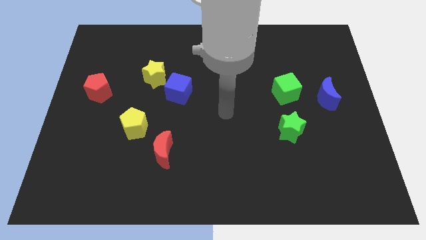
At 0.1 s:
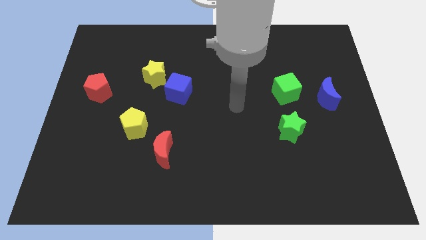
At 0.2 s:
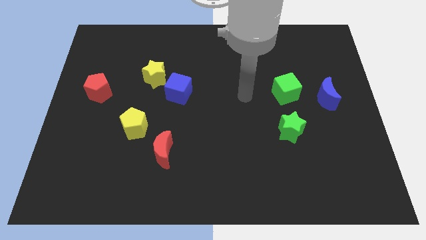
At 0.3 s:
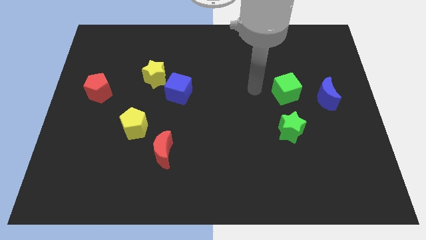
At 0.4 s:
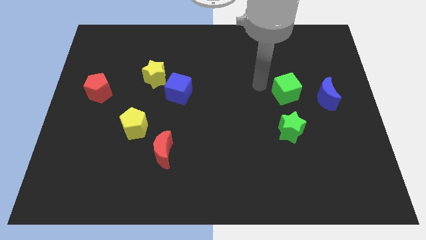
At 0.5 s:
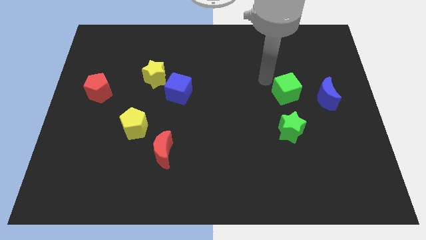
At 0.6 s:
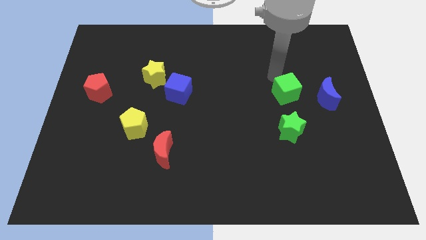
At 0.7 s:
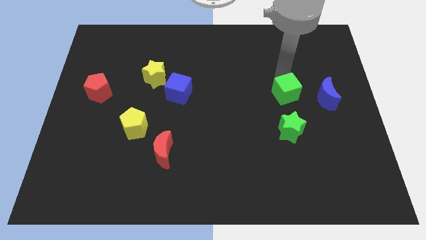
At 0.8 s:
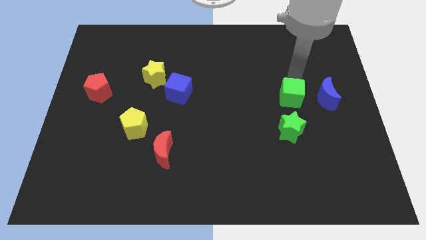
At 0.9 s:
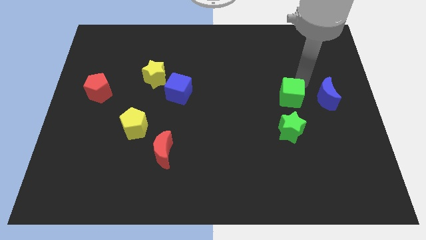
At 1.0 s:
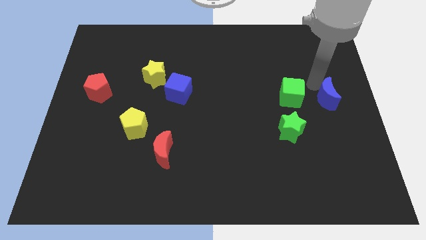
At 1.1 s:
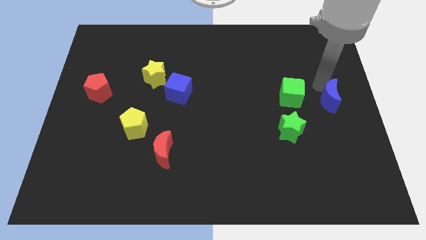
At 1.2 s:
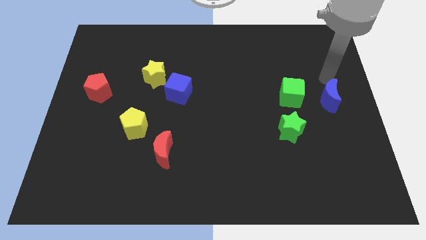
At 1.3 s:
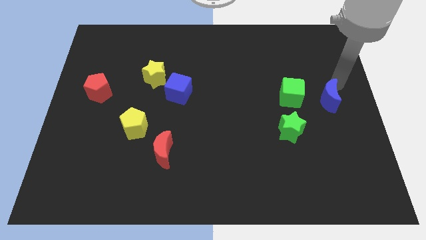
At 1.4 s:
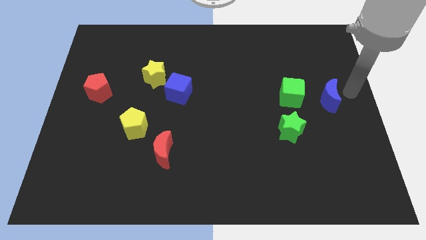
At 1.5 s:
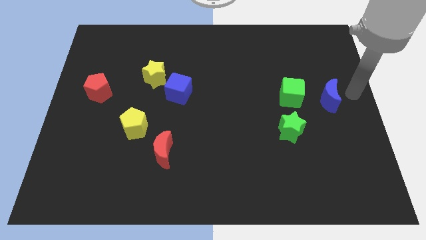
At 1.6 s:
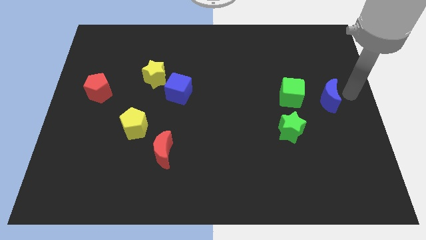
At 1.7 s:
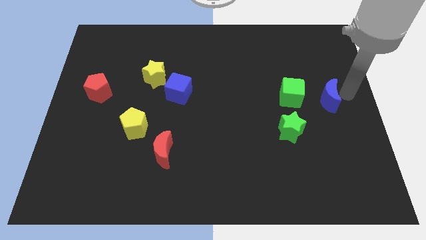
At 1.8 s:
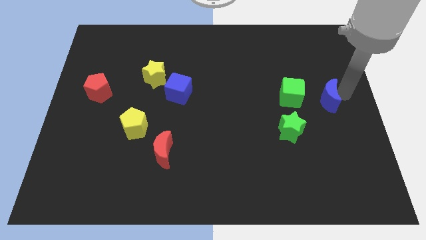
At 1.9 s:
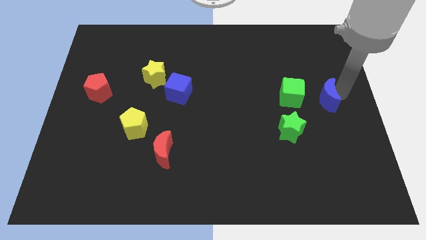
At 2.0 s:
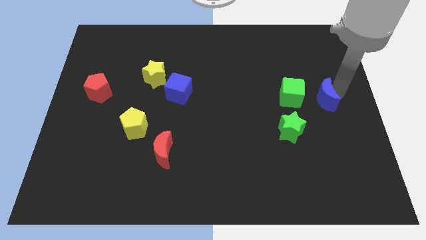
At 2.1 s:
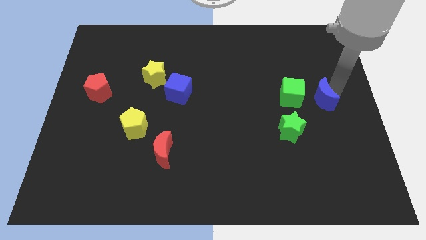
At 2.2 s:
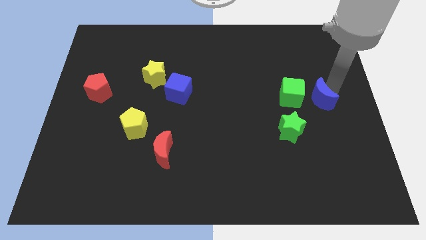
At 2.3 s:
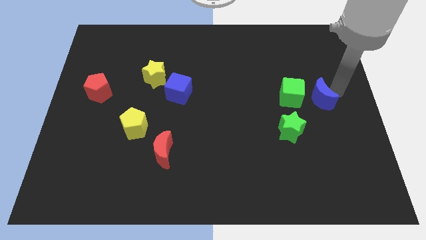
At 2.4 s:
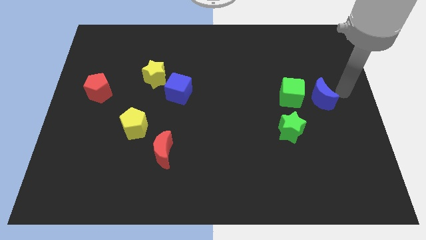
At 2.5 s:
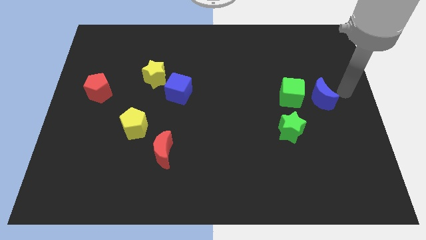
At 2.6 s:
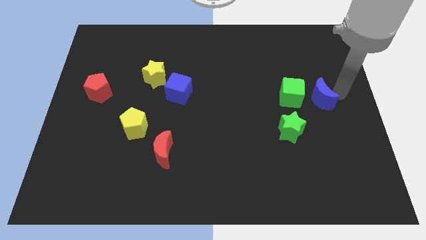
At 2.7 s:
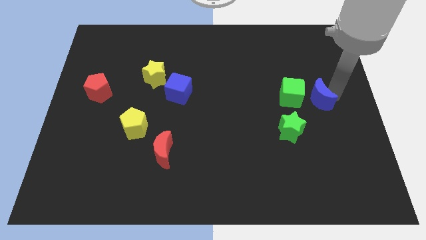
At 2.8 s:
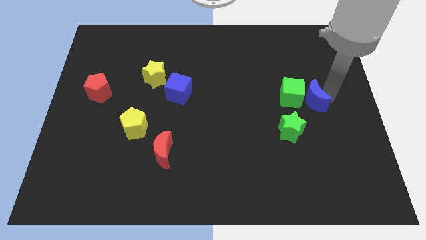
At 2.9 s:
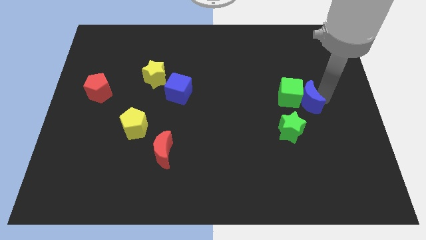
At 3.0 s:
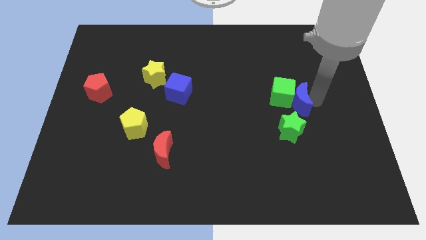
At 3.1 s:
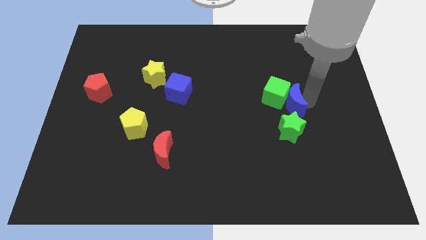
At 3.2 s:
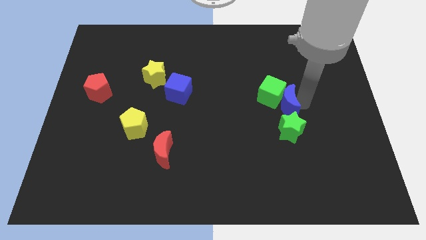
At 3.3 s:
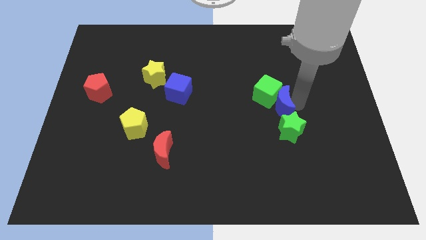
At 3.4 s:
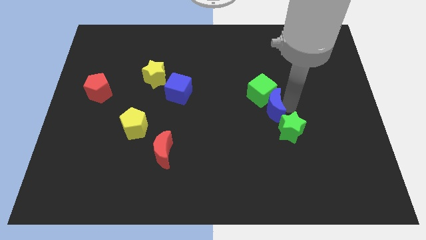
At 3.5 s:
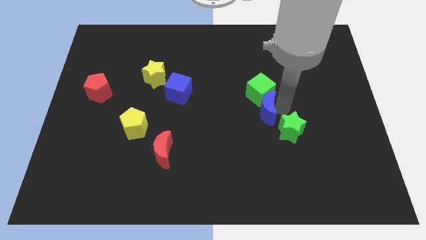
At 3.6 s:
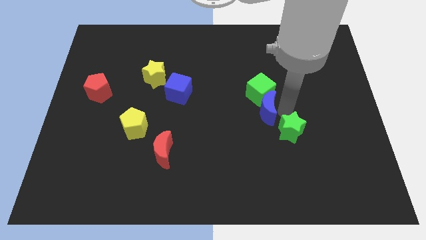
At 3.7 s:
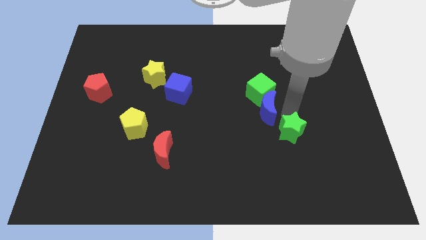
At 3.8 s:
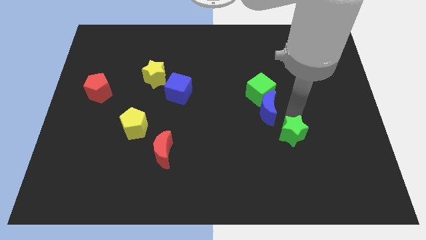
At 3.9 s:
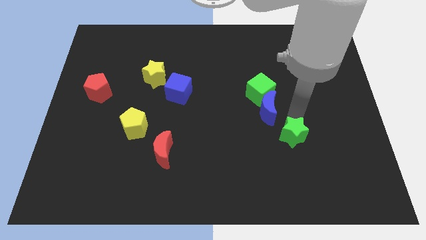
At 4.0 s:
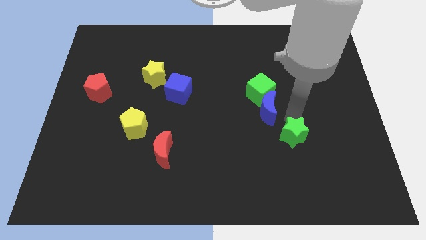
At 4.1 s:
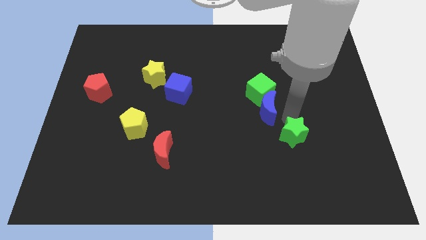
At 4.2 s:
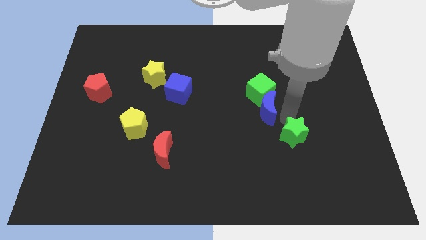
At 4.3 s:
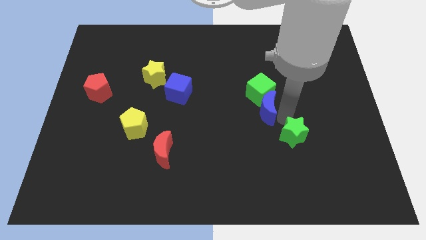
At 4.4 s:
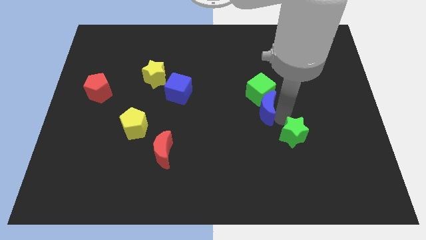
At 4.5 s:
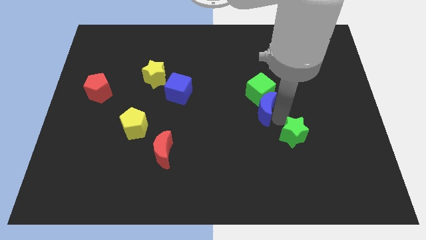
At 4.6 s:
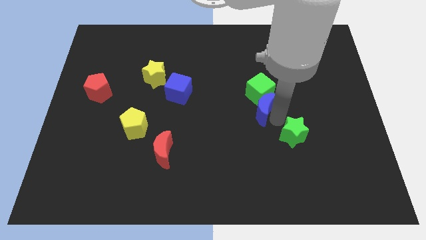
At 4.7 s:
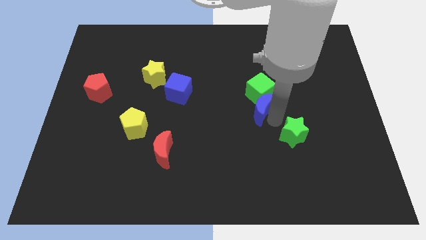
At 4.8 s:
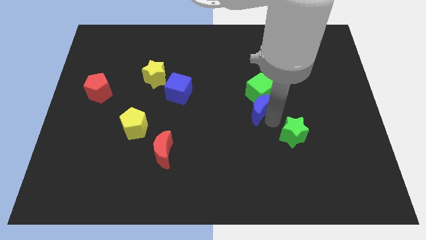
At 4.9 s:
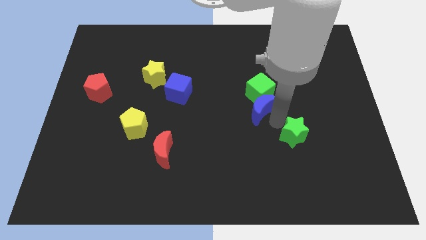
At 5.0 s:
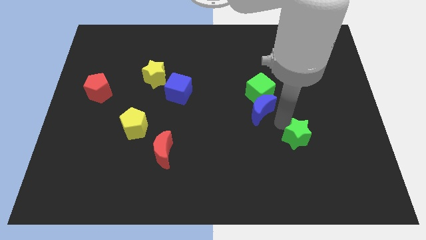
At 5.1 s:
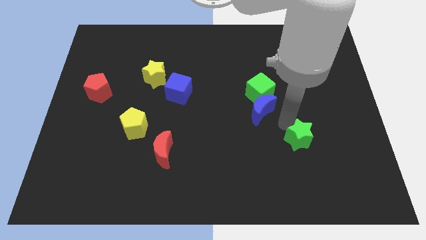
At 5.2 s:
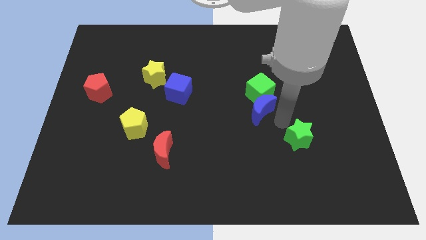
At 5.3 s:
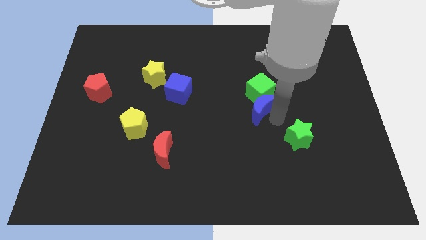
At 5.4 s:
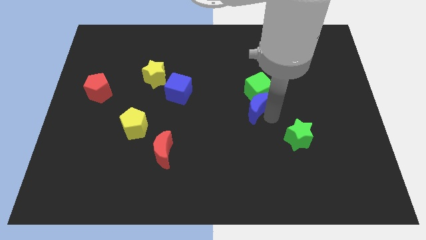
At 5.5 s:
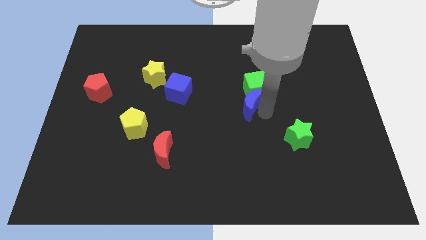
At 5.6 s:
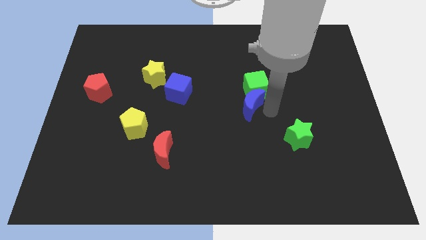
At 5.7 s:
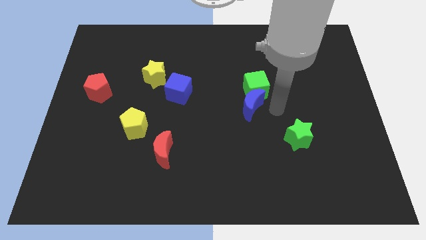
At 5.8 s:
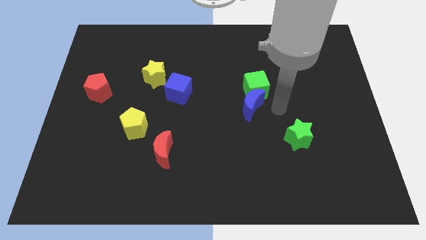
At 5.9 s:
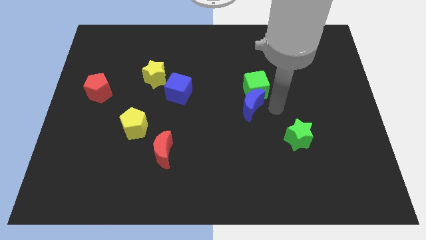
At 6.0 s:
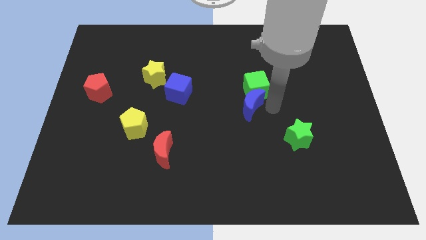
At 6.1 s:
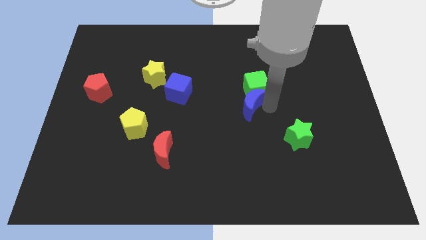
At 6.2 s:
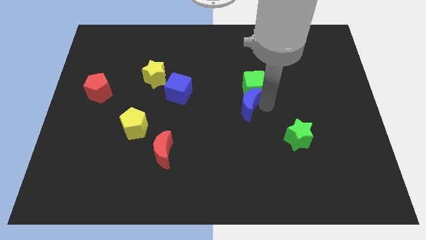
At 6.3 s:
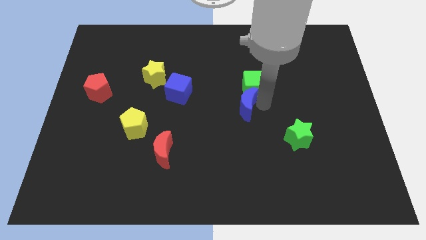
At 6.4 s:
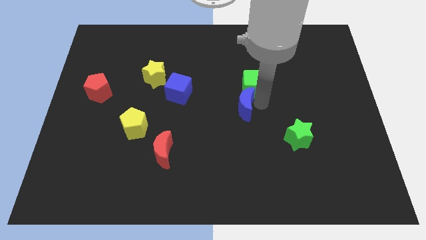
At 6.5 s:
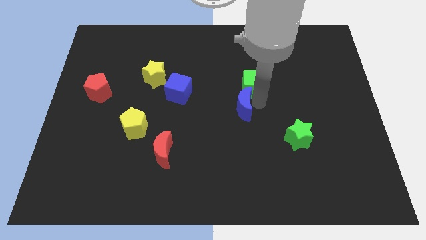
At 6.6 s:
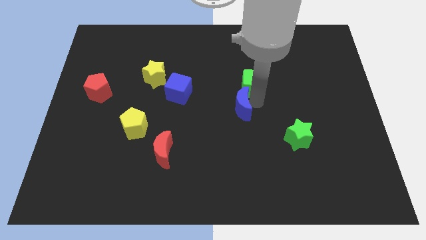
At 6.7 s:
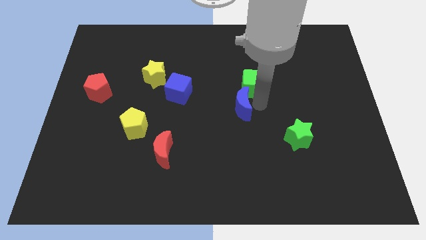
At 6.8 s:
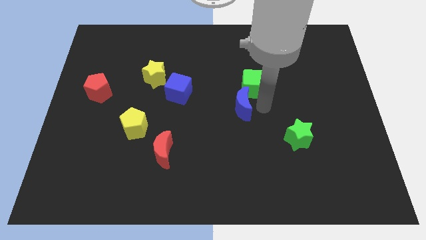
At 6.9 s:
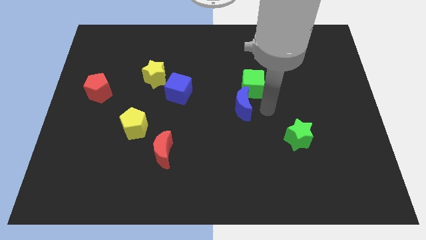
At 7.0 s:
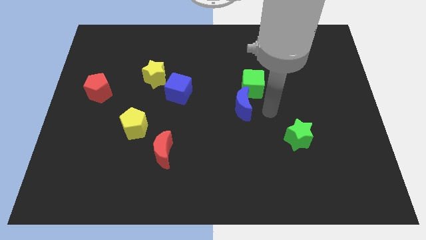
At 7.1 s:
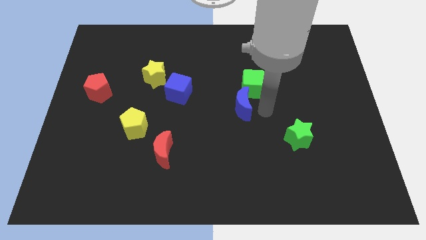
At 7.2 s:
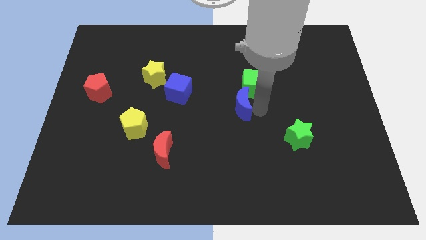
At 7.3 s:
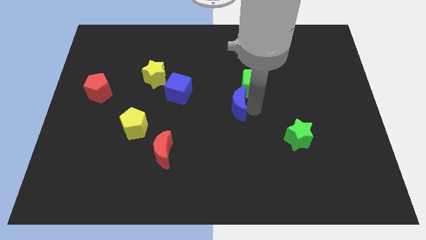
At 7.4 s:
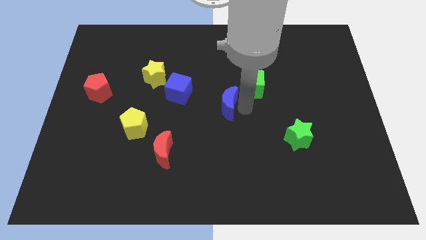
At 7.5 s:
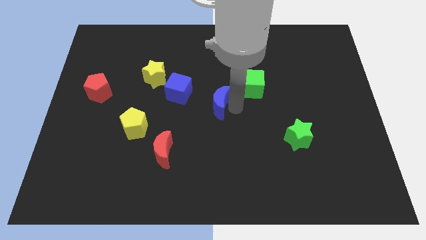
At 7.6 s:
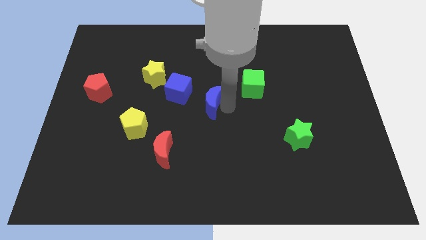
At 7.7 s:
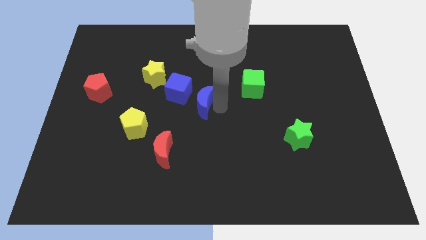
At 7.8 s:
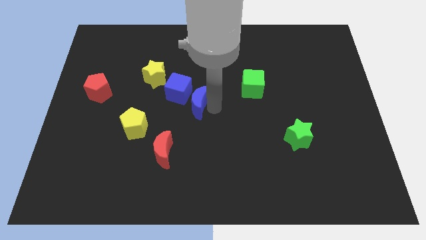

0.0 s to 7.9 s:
push the blue moon to the blue cube
